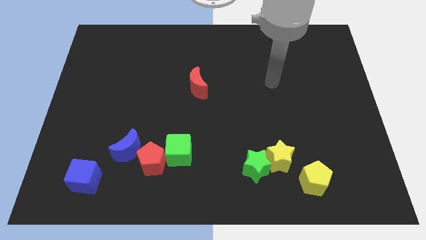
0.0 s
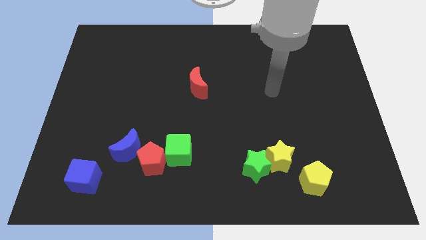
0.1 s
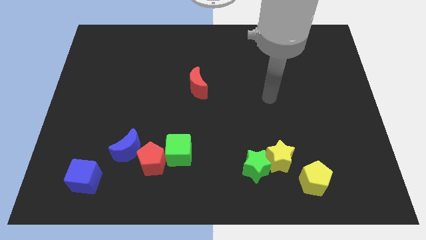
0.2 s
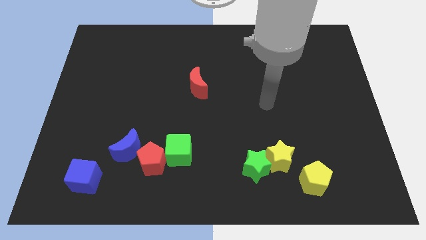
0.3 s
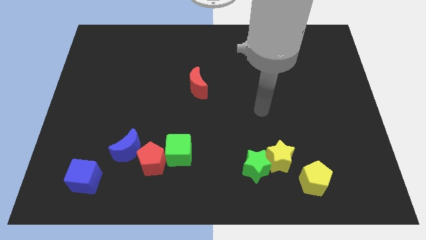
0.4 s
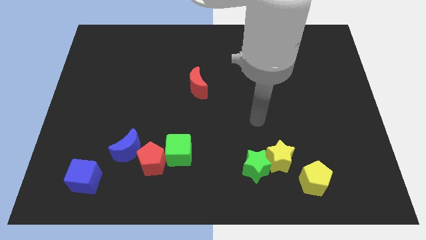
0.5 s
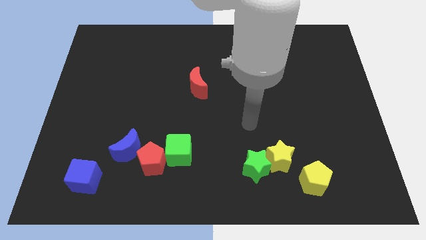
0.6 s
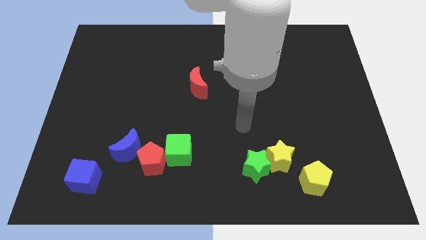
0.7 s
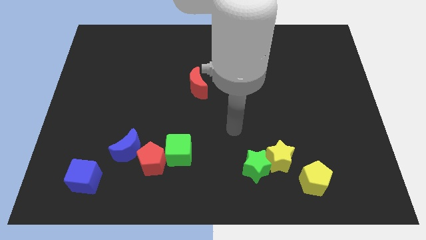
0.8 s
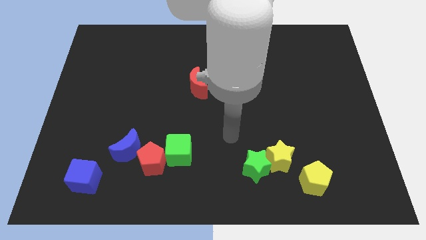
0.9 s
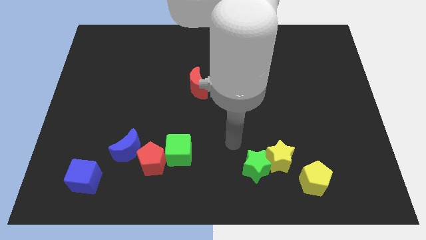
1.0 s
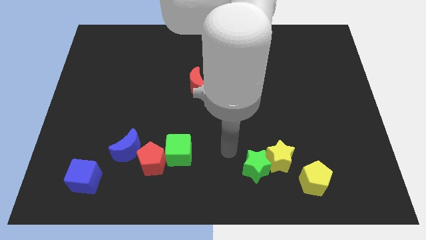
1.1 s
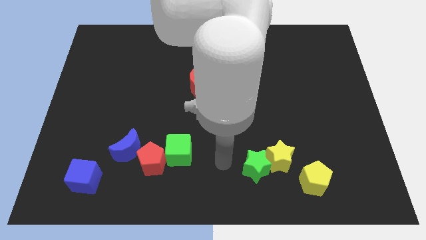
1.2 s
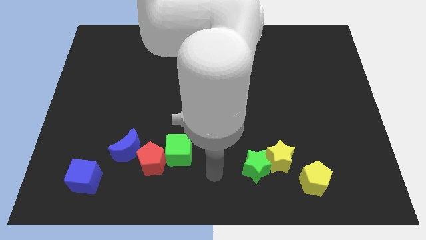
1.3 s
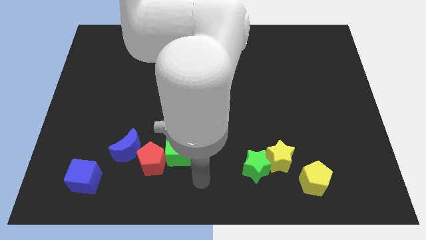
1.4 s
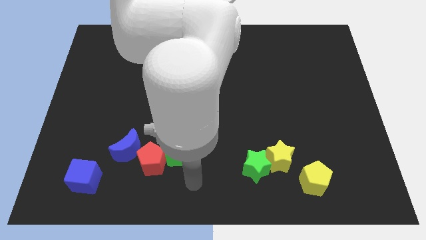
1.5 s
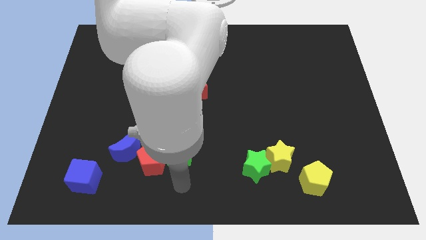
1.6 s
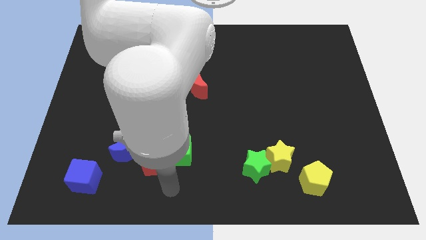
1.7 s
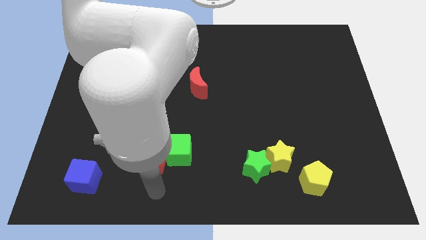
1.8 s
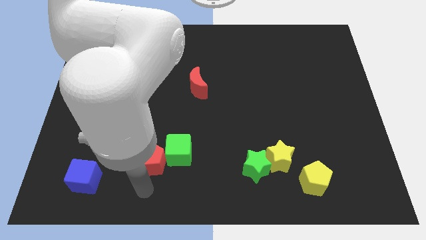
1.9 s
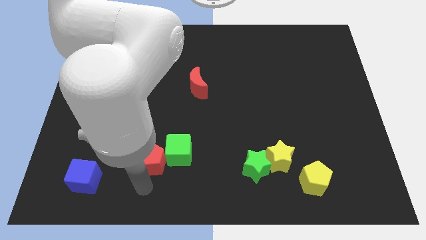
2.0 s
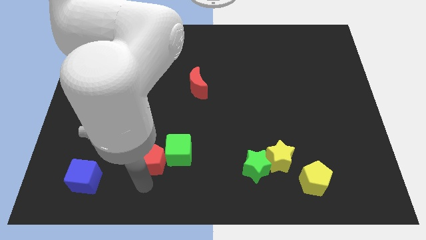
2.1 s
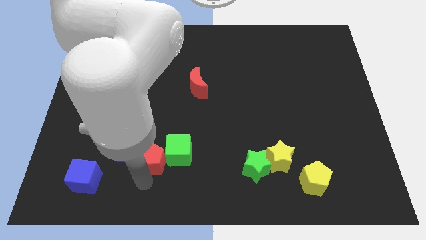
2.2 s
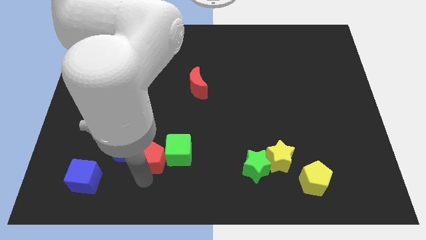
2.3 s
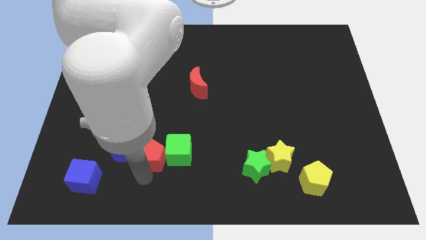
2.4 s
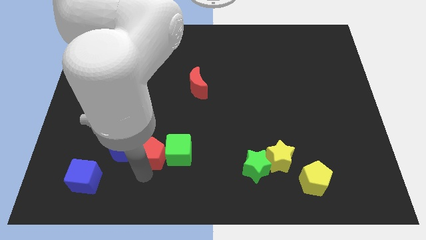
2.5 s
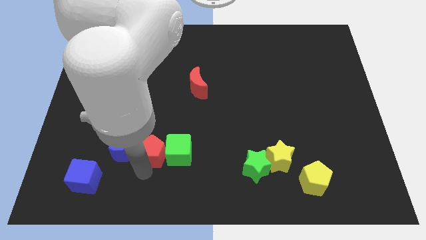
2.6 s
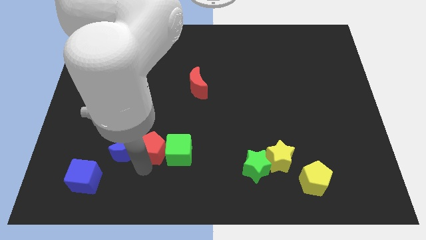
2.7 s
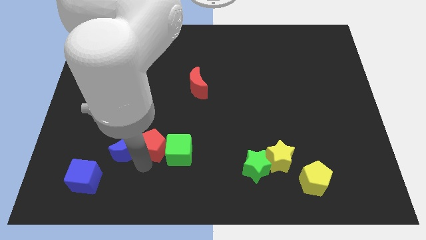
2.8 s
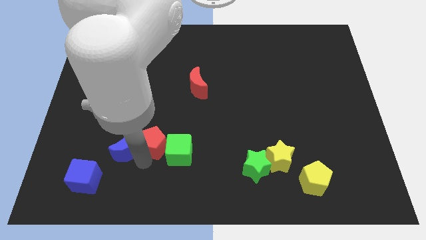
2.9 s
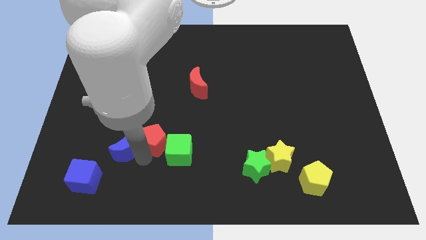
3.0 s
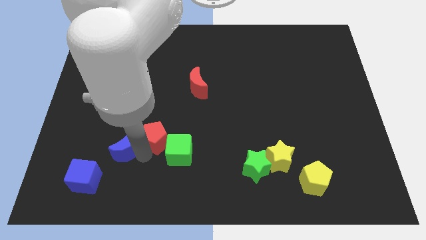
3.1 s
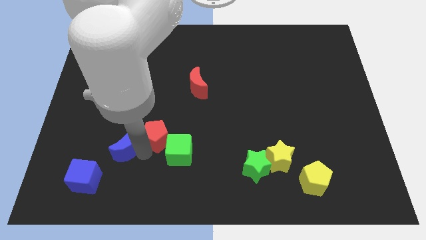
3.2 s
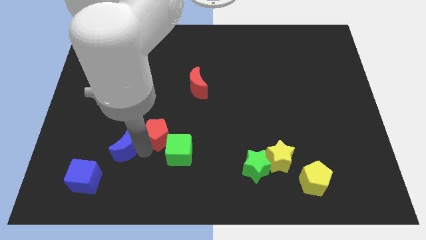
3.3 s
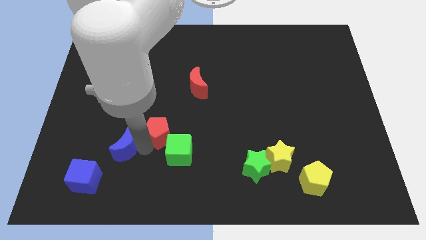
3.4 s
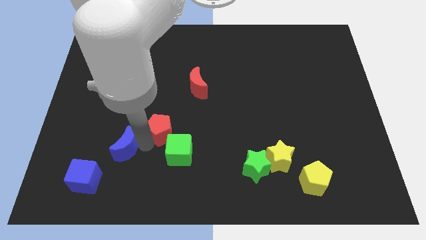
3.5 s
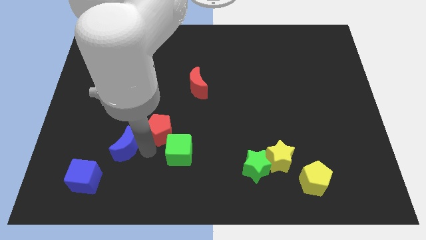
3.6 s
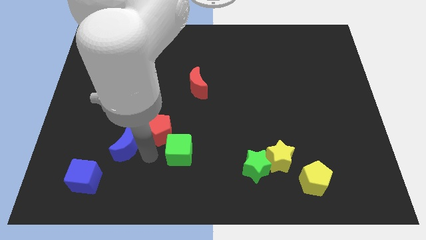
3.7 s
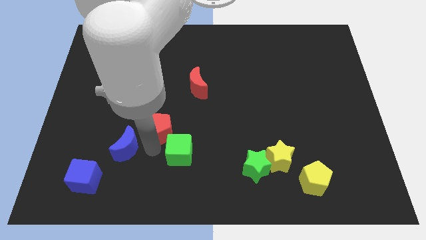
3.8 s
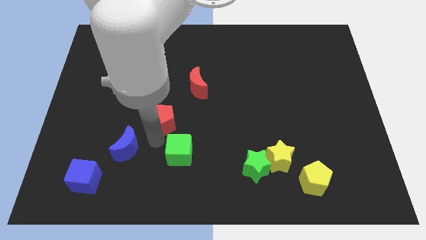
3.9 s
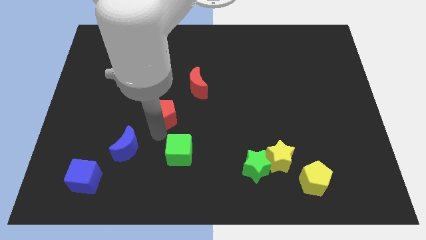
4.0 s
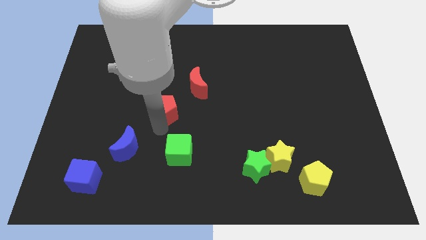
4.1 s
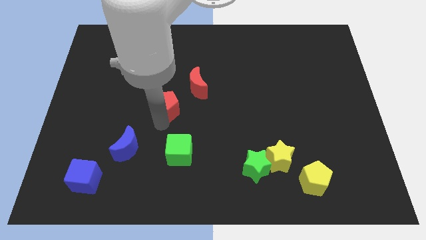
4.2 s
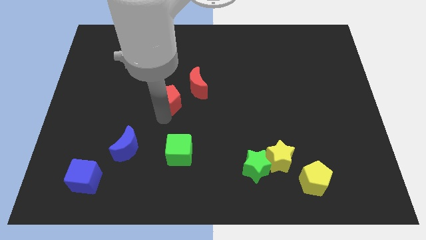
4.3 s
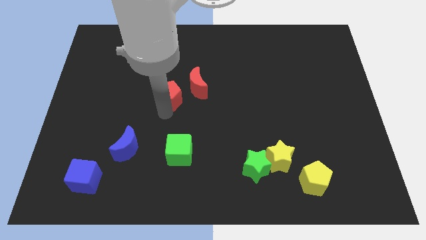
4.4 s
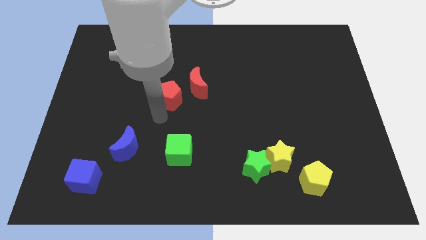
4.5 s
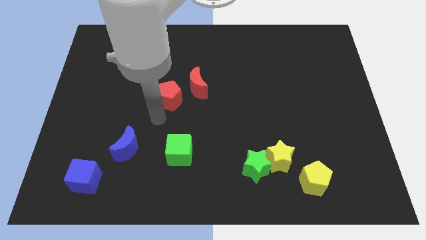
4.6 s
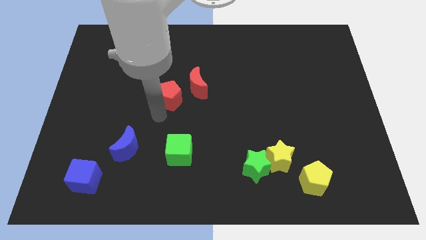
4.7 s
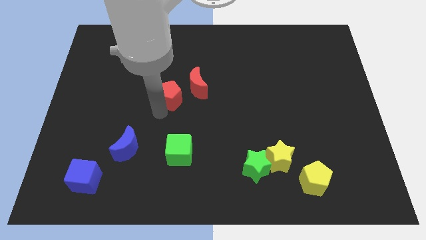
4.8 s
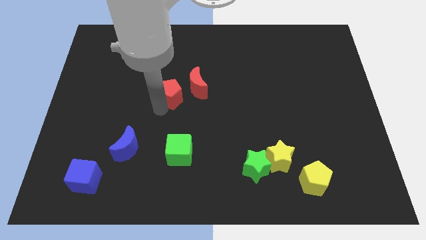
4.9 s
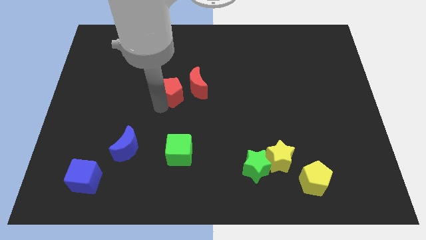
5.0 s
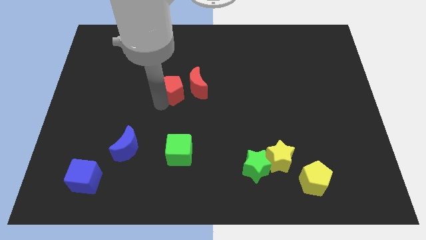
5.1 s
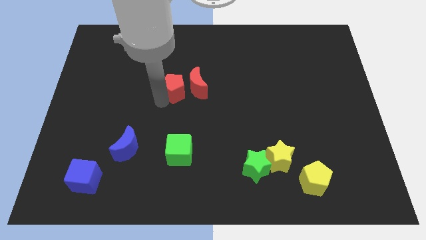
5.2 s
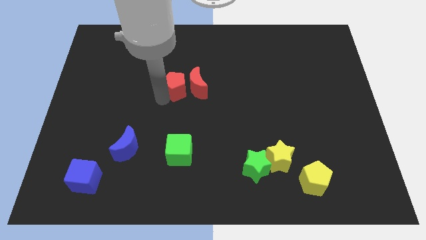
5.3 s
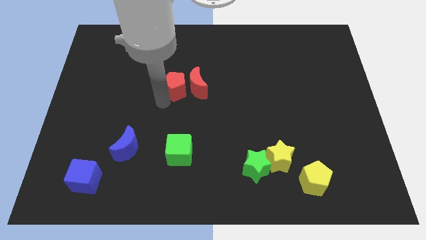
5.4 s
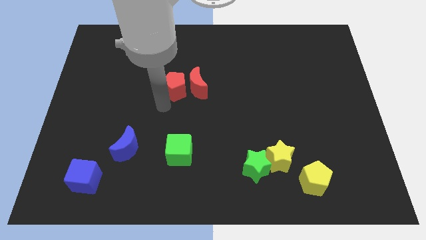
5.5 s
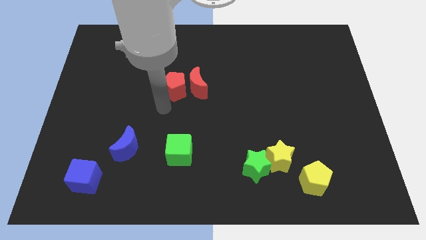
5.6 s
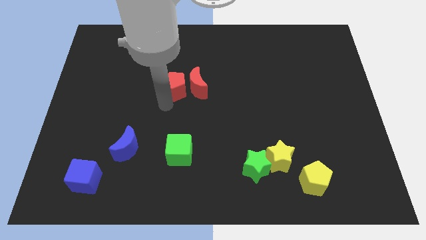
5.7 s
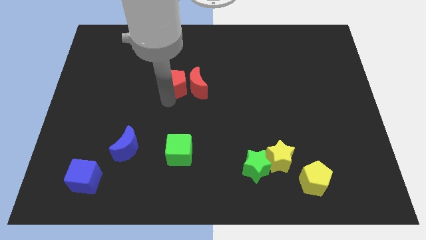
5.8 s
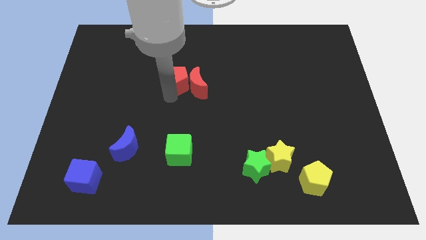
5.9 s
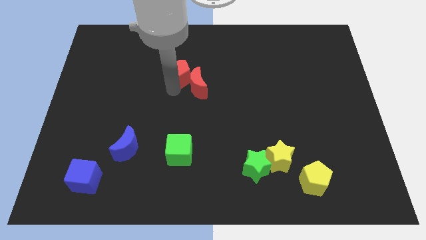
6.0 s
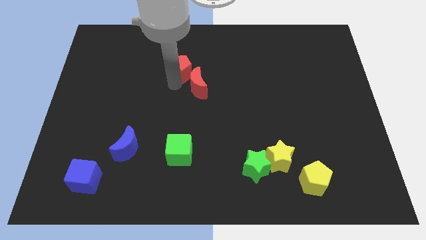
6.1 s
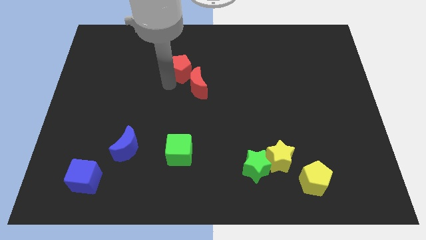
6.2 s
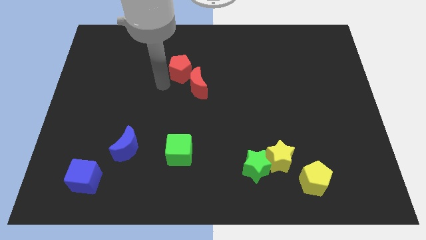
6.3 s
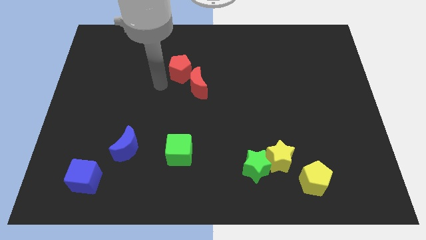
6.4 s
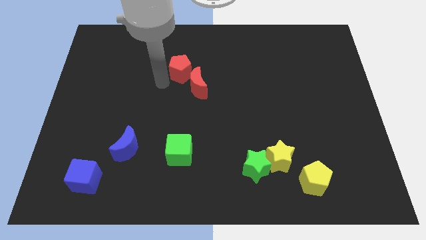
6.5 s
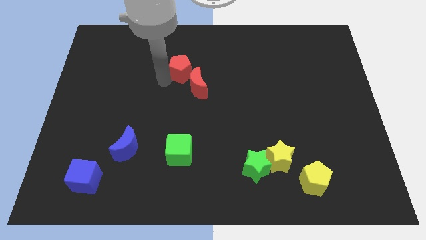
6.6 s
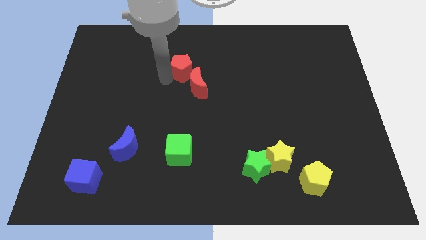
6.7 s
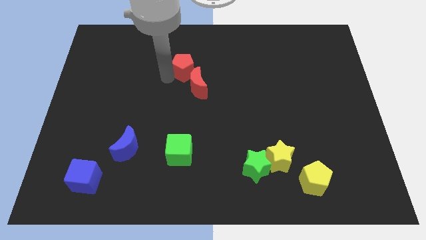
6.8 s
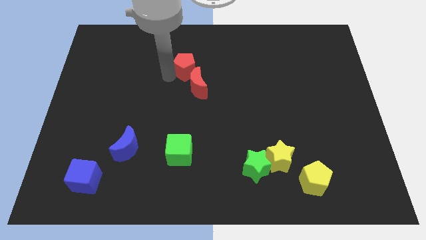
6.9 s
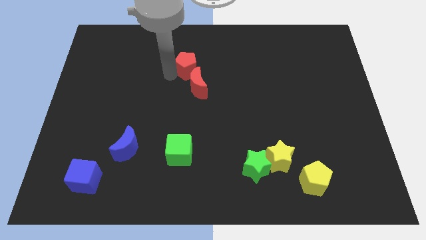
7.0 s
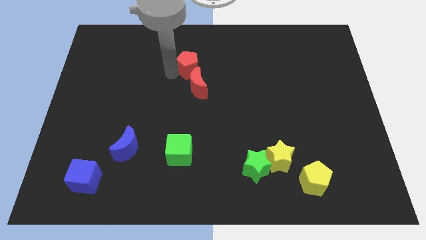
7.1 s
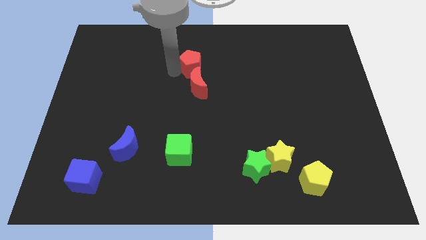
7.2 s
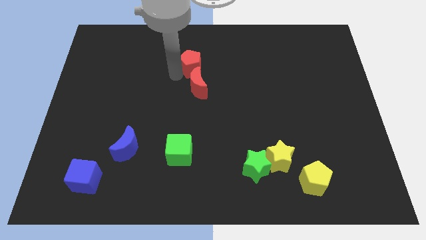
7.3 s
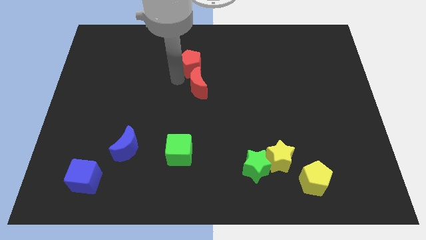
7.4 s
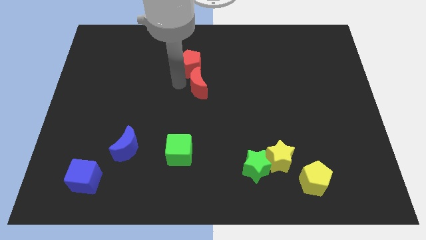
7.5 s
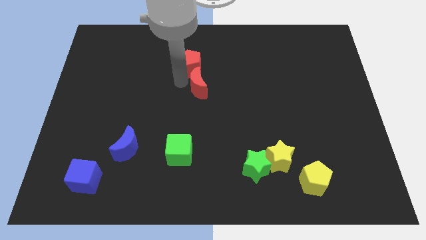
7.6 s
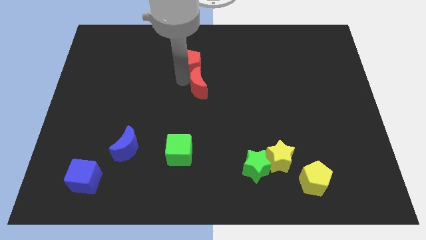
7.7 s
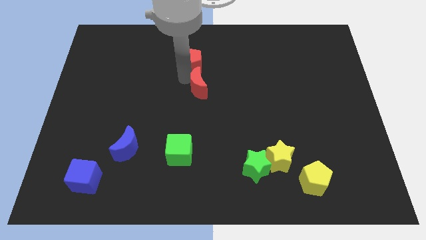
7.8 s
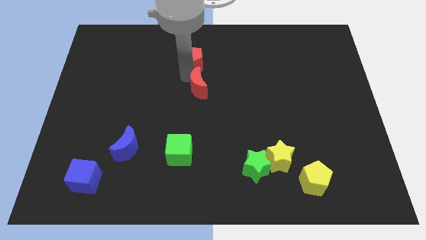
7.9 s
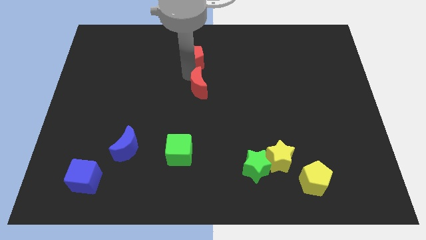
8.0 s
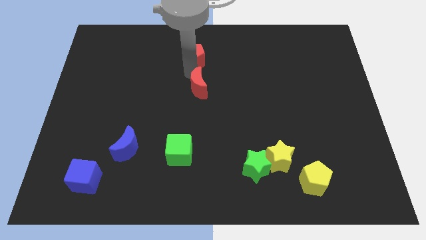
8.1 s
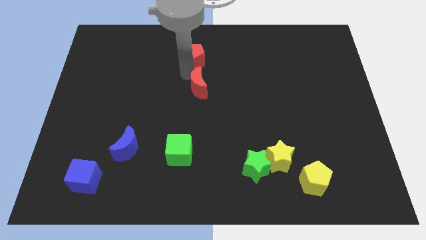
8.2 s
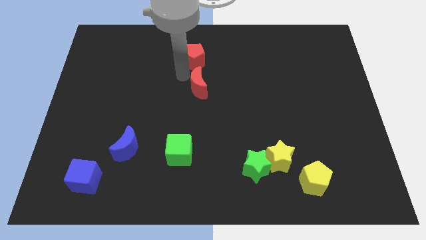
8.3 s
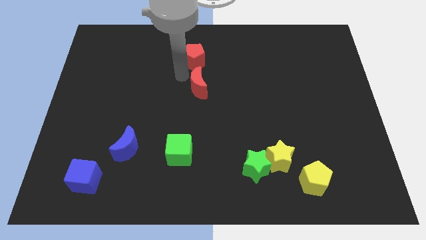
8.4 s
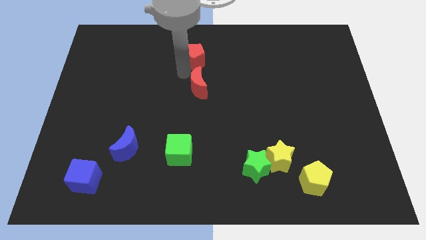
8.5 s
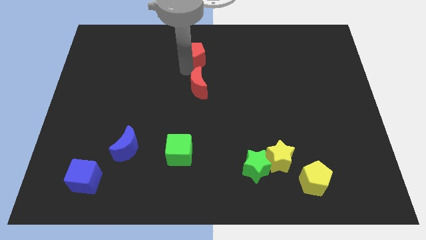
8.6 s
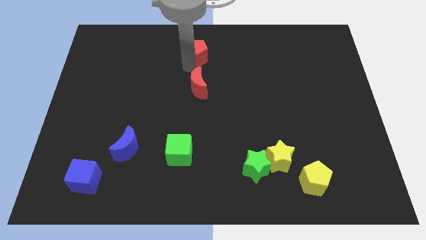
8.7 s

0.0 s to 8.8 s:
put the red pentagon to the top
